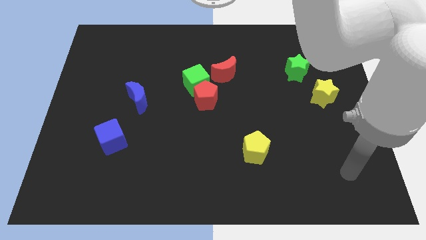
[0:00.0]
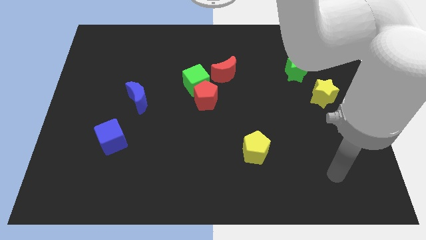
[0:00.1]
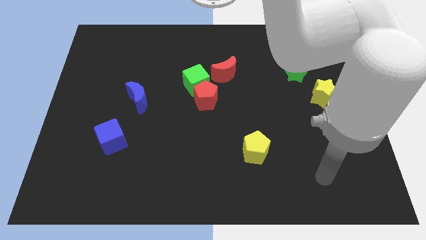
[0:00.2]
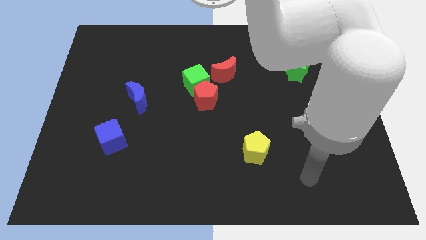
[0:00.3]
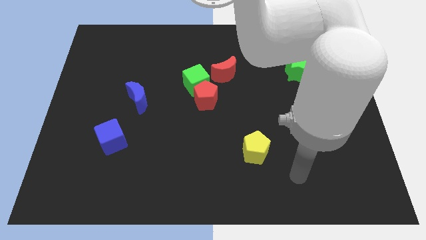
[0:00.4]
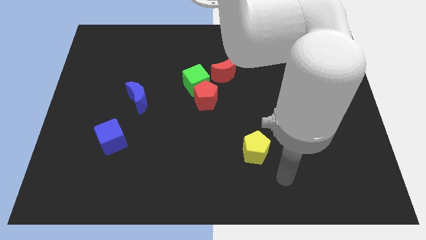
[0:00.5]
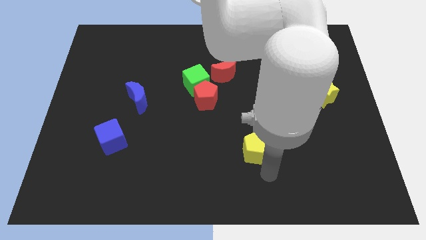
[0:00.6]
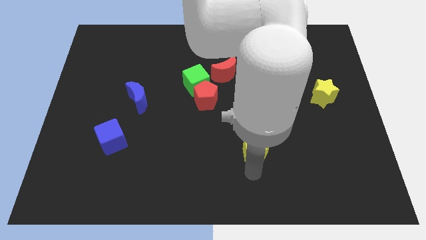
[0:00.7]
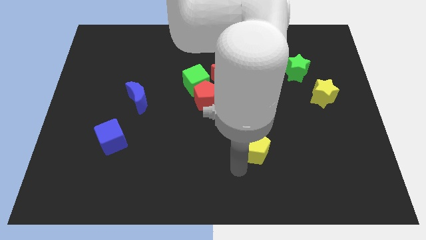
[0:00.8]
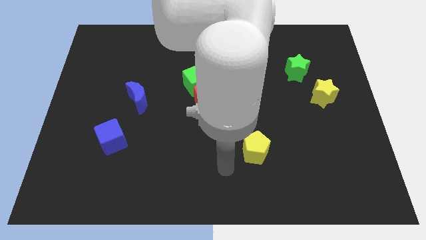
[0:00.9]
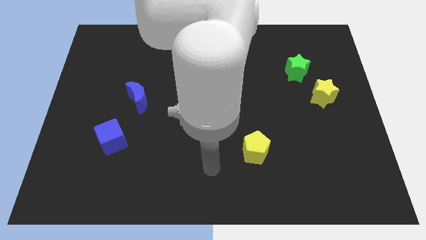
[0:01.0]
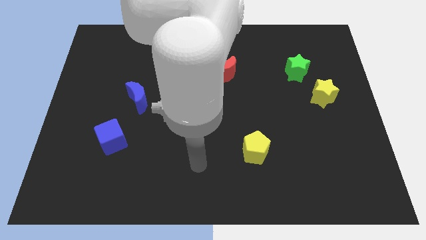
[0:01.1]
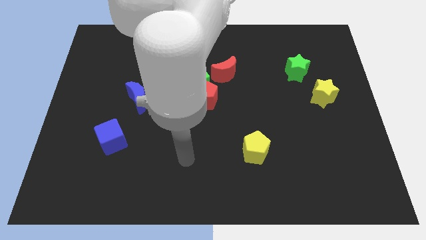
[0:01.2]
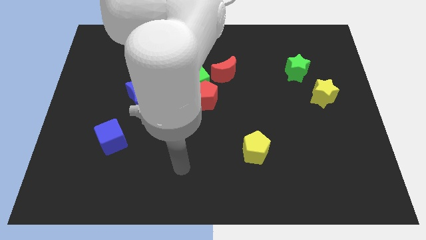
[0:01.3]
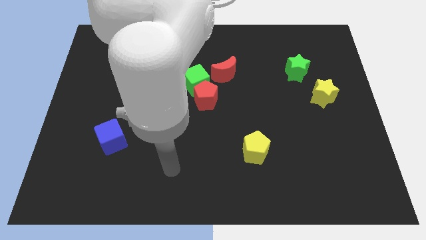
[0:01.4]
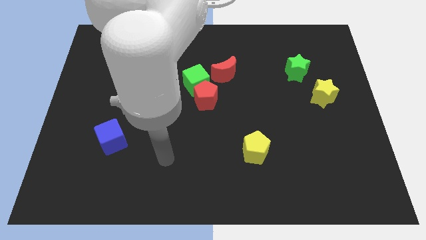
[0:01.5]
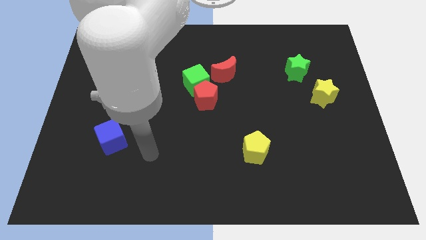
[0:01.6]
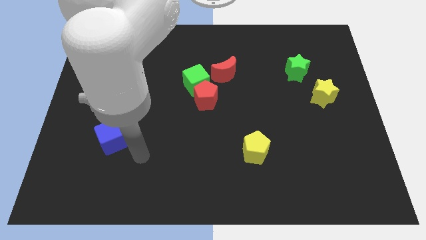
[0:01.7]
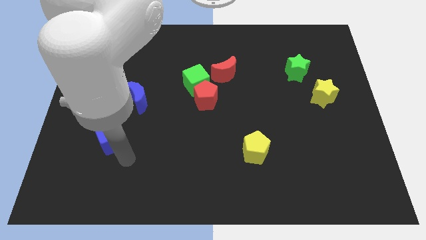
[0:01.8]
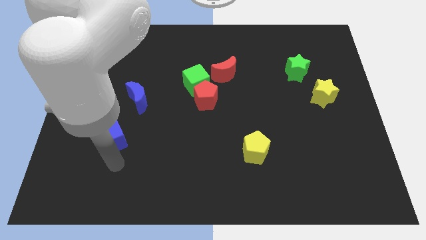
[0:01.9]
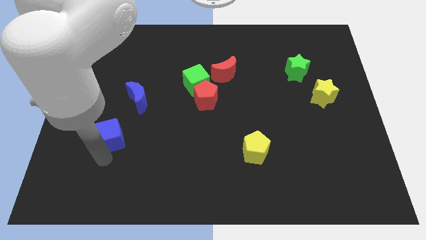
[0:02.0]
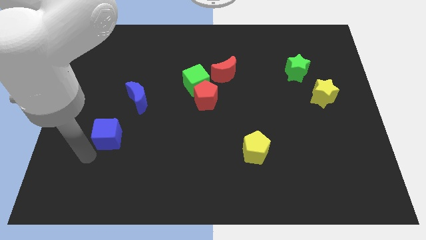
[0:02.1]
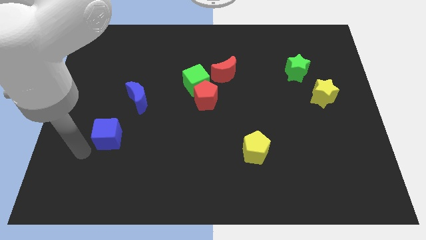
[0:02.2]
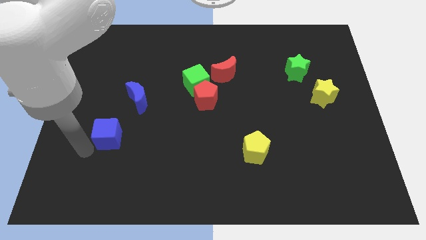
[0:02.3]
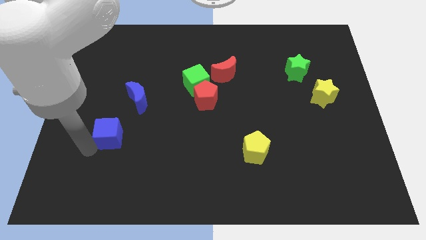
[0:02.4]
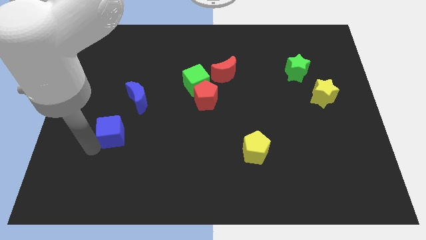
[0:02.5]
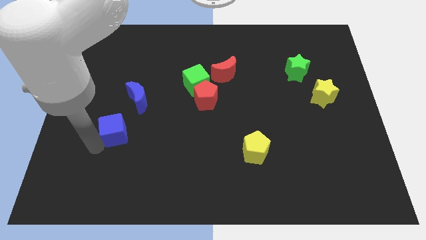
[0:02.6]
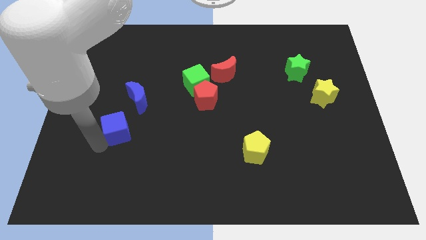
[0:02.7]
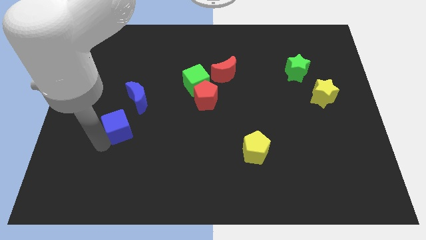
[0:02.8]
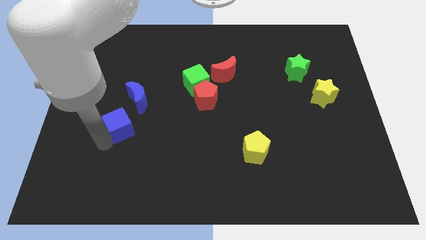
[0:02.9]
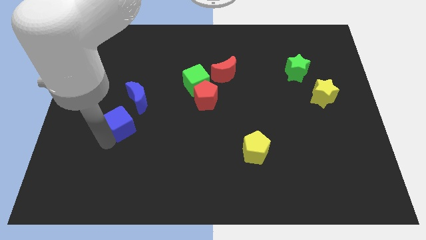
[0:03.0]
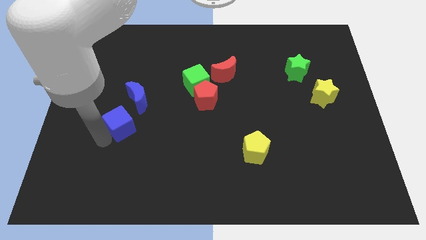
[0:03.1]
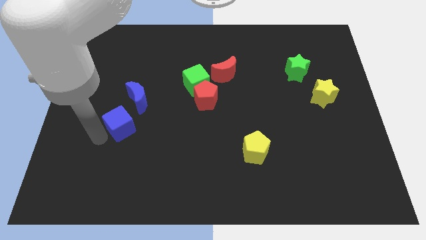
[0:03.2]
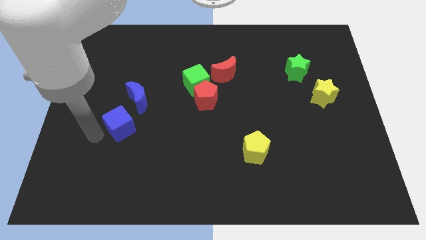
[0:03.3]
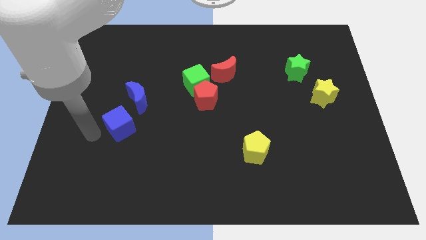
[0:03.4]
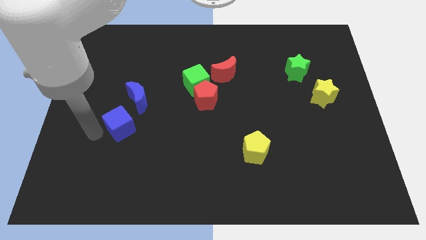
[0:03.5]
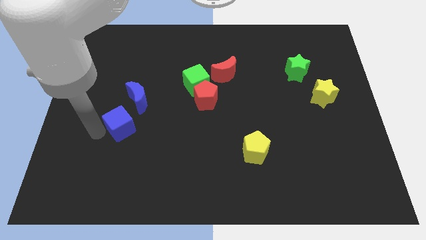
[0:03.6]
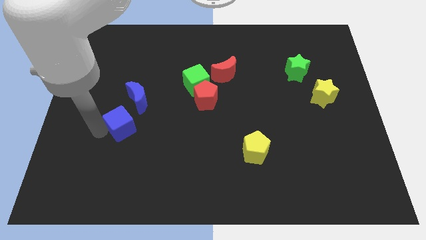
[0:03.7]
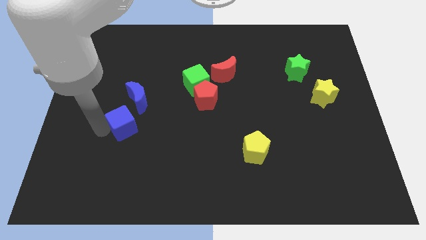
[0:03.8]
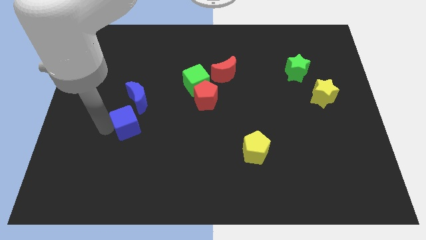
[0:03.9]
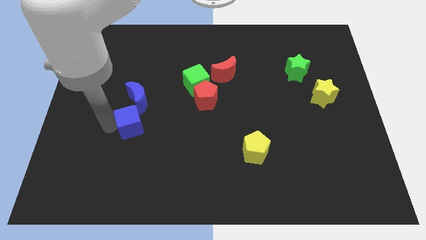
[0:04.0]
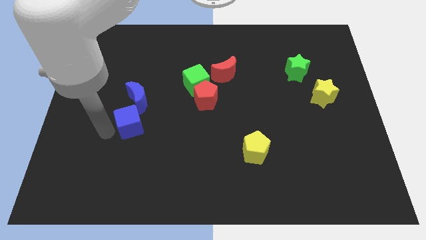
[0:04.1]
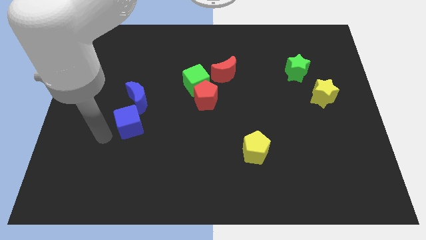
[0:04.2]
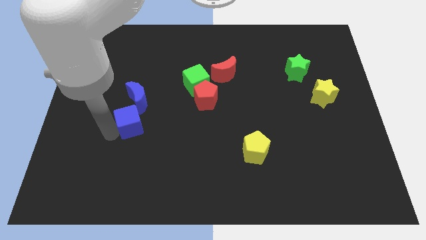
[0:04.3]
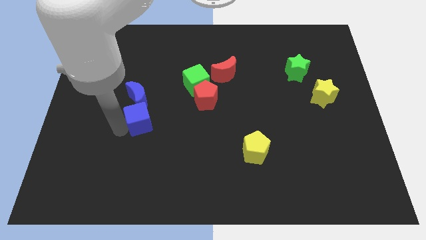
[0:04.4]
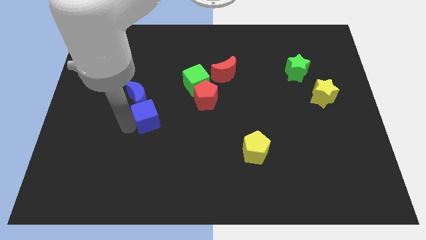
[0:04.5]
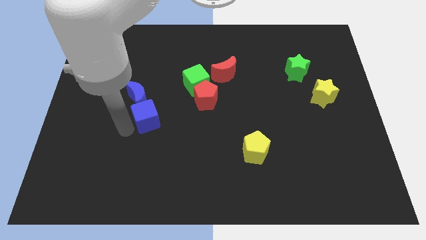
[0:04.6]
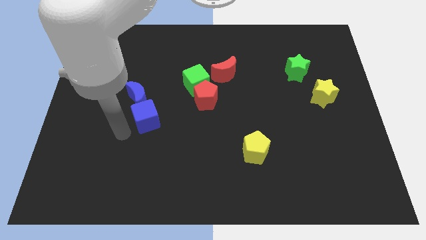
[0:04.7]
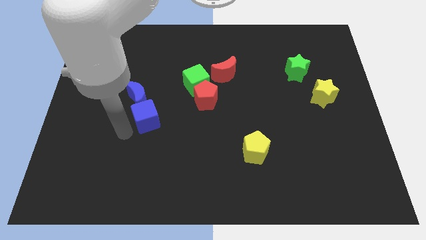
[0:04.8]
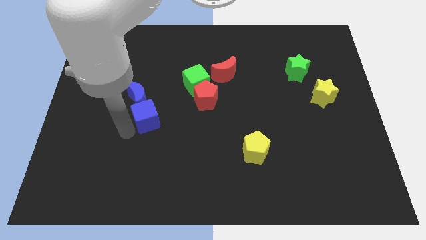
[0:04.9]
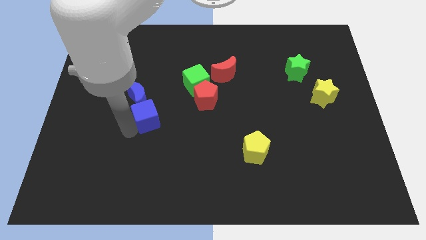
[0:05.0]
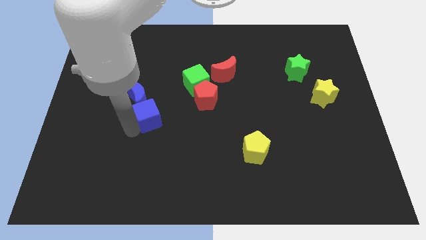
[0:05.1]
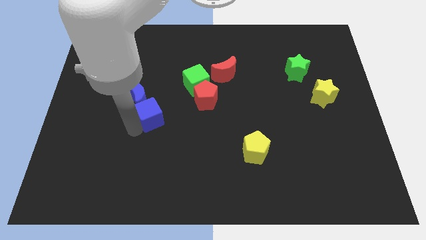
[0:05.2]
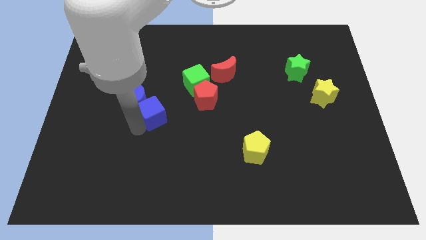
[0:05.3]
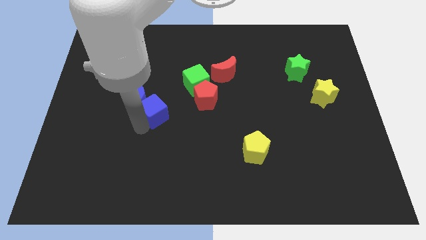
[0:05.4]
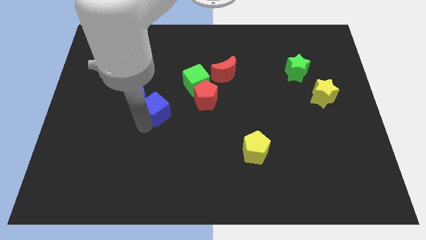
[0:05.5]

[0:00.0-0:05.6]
put the blue cube to the bottom left side of the green cube

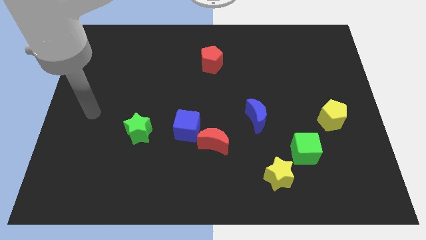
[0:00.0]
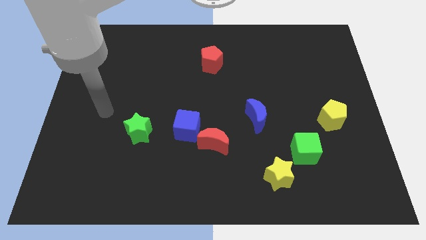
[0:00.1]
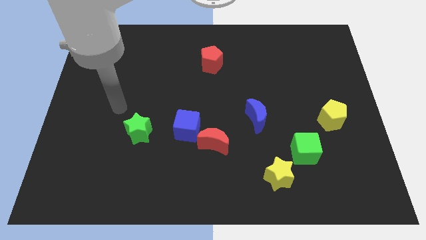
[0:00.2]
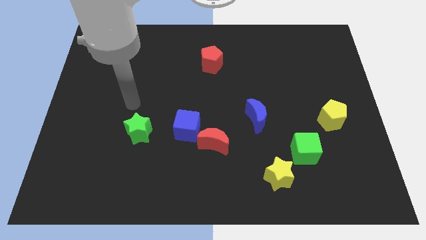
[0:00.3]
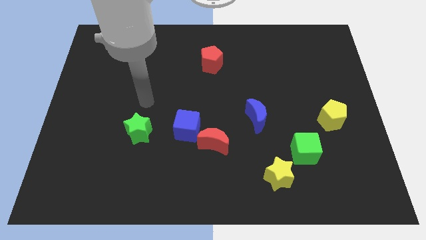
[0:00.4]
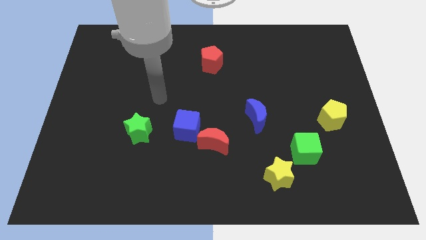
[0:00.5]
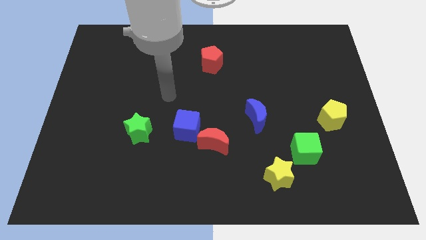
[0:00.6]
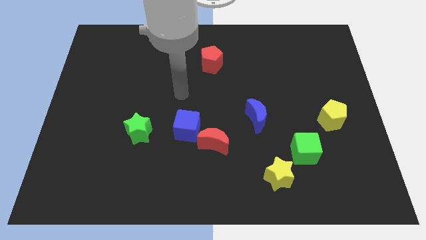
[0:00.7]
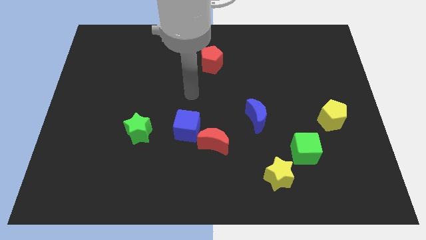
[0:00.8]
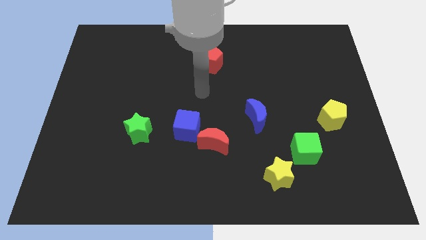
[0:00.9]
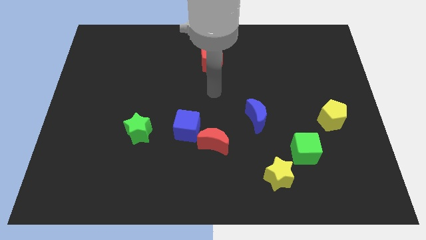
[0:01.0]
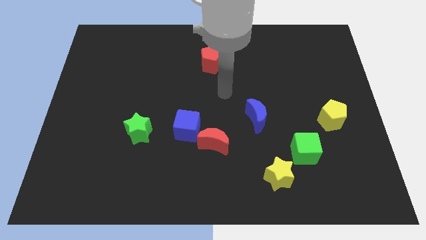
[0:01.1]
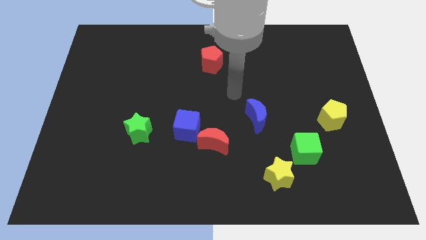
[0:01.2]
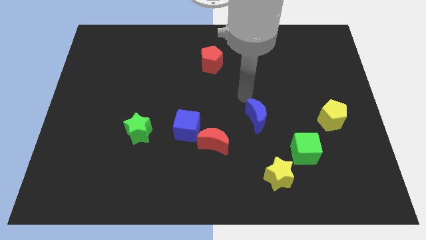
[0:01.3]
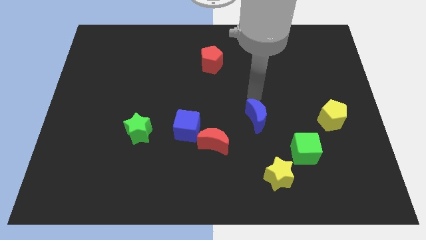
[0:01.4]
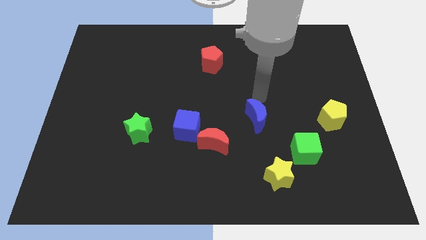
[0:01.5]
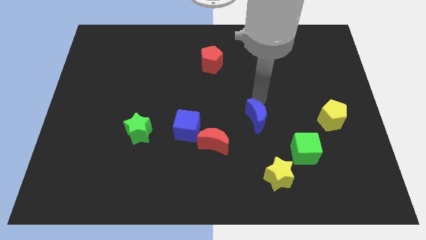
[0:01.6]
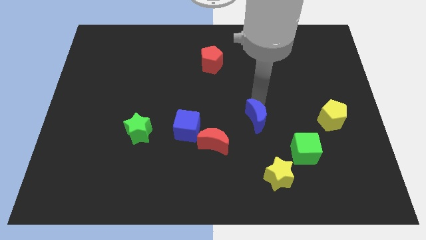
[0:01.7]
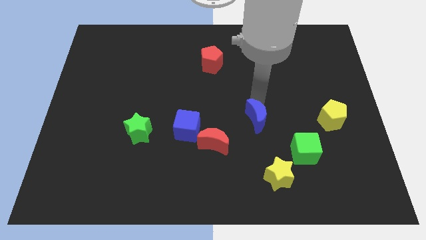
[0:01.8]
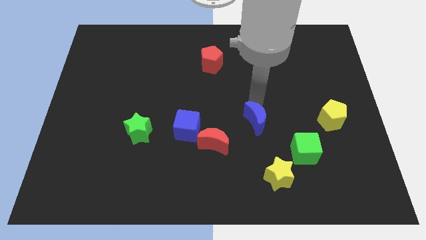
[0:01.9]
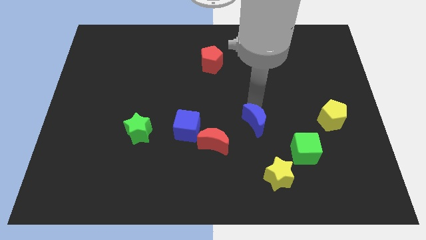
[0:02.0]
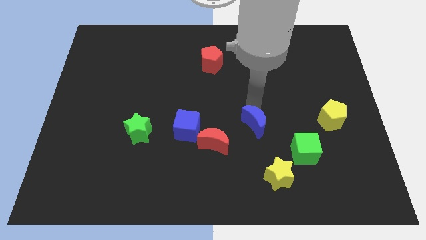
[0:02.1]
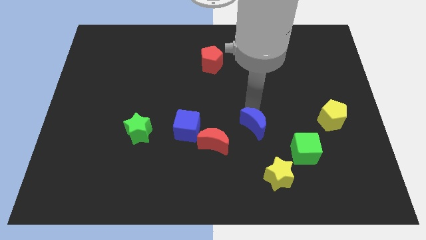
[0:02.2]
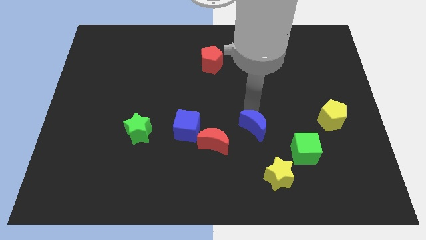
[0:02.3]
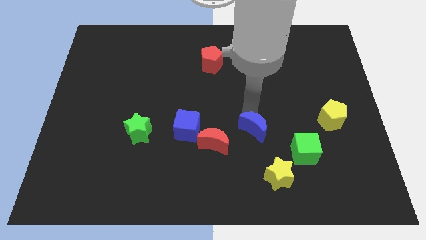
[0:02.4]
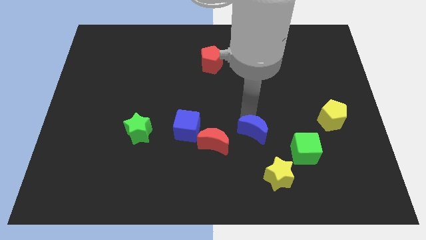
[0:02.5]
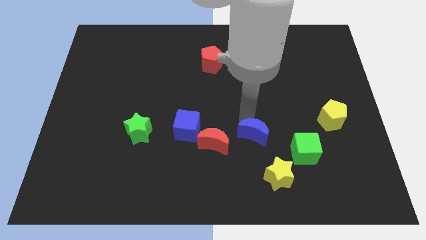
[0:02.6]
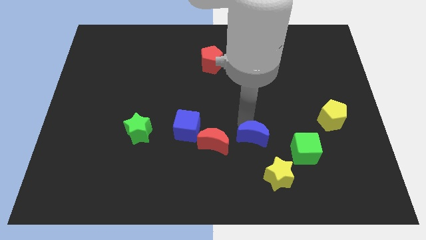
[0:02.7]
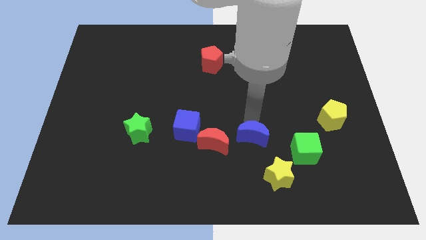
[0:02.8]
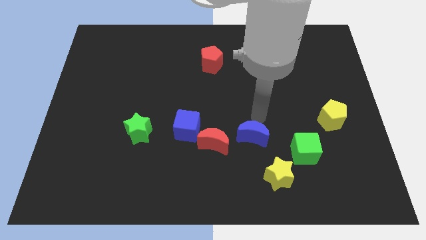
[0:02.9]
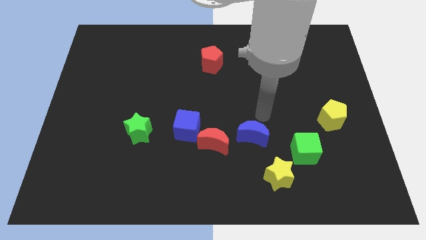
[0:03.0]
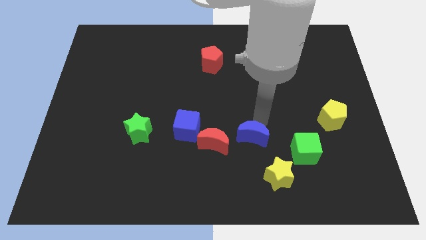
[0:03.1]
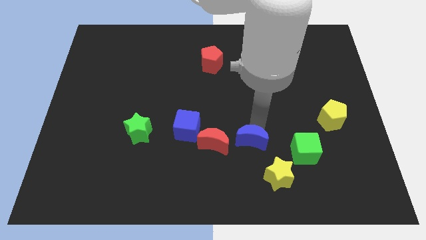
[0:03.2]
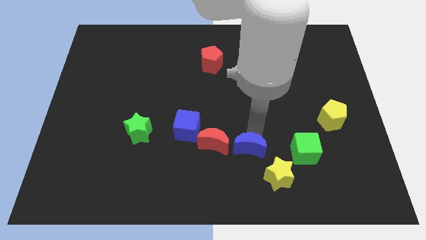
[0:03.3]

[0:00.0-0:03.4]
move the blue moon to the bottom right of the red moon
